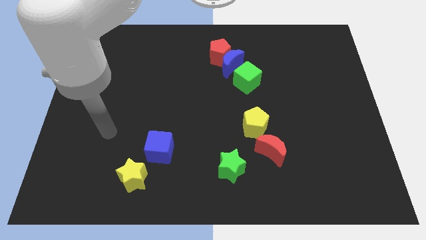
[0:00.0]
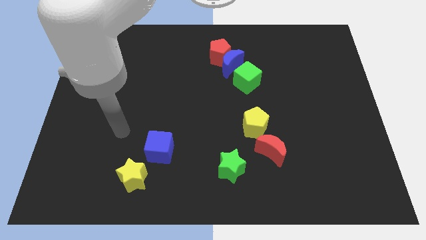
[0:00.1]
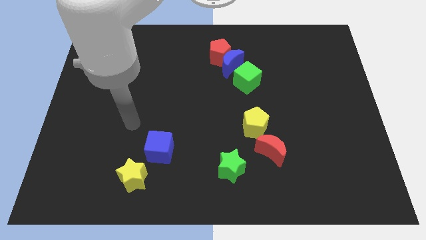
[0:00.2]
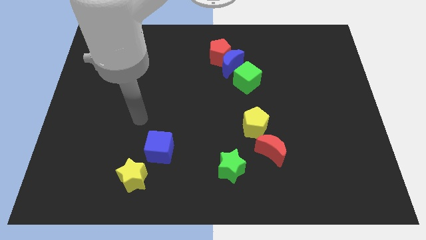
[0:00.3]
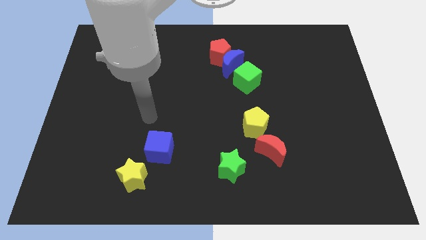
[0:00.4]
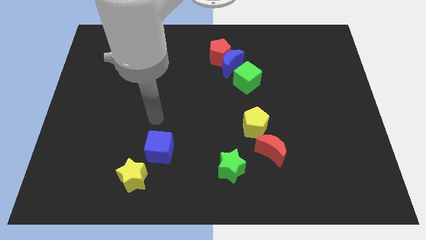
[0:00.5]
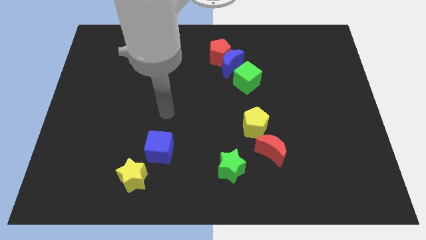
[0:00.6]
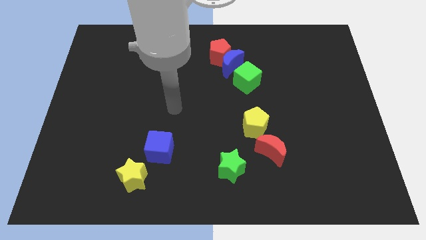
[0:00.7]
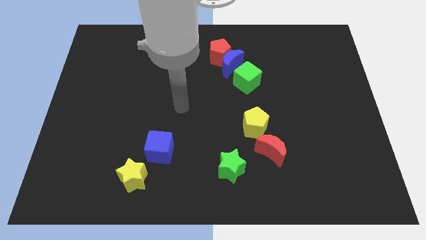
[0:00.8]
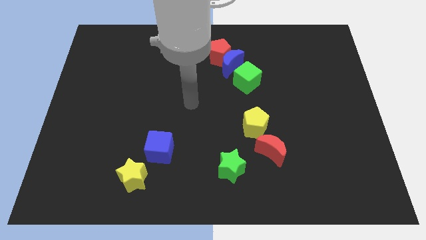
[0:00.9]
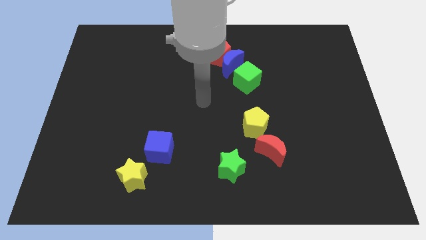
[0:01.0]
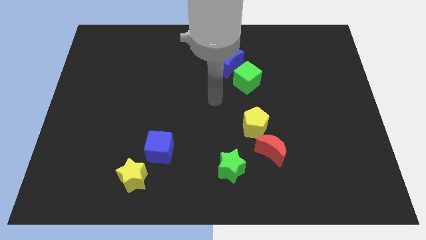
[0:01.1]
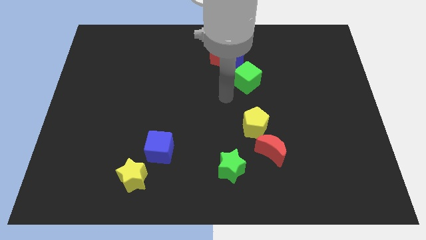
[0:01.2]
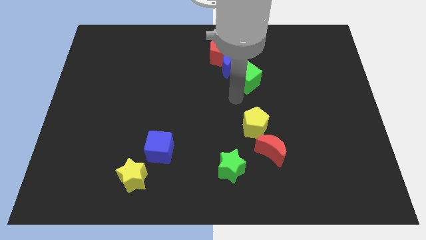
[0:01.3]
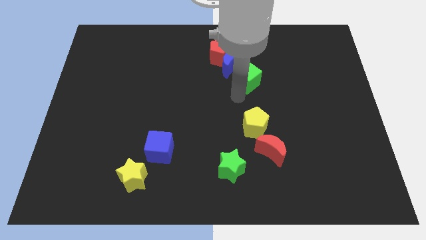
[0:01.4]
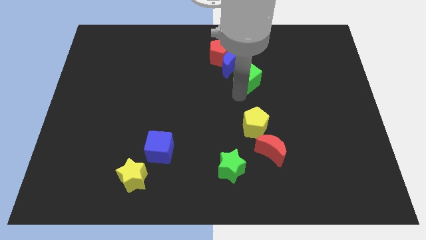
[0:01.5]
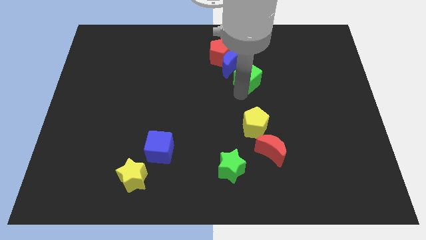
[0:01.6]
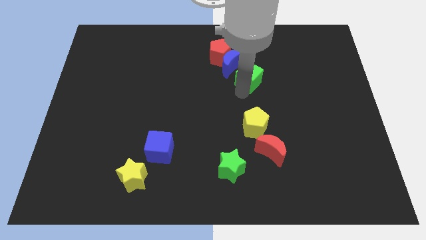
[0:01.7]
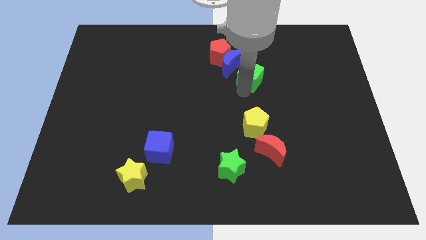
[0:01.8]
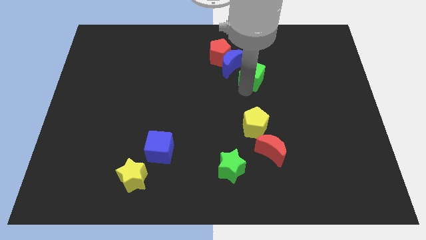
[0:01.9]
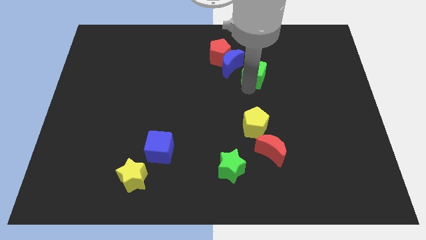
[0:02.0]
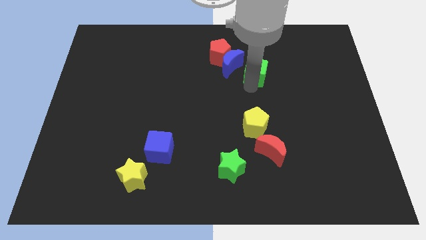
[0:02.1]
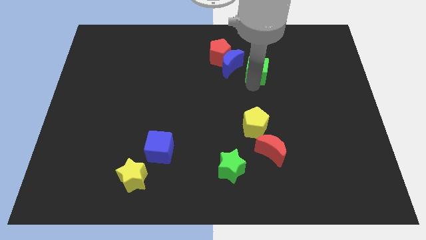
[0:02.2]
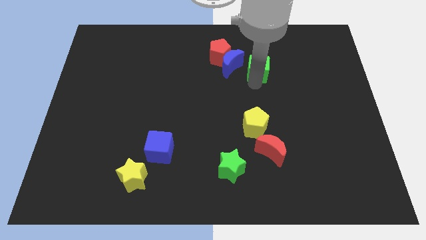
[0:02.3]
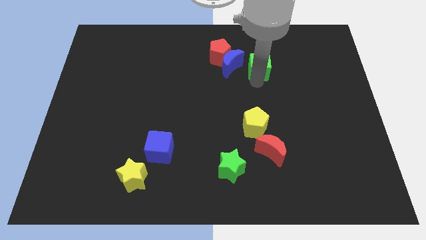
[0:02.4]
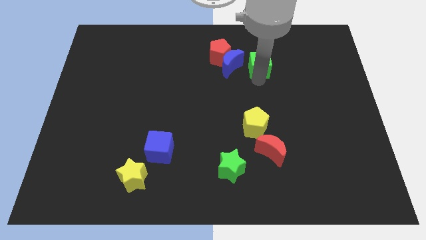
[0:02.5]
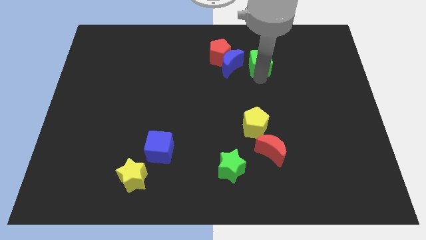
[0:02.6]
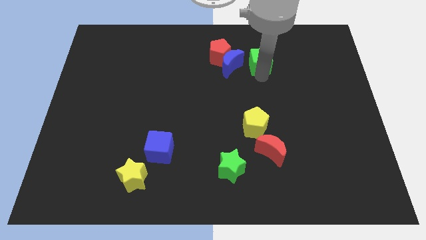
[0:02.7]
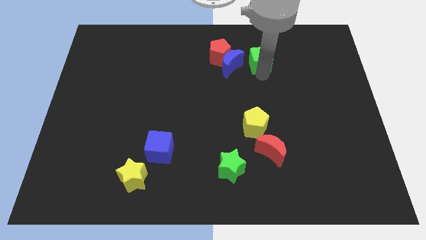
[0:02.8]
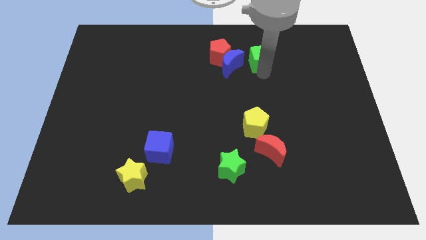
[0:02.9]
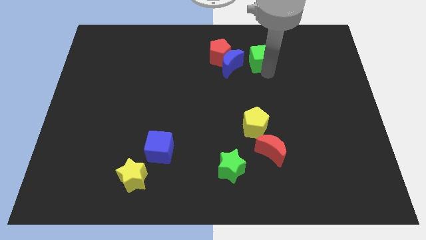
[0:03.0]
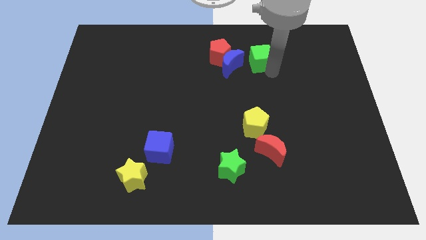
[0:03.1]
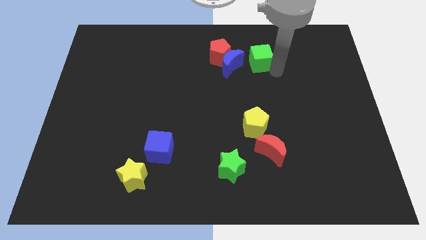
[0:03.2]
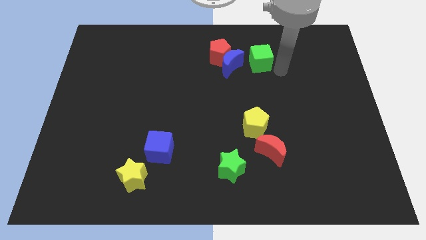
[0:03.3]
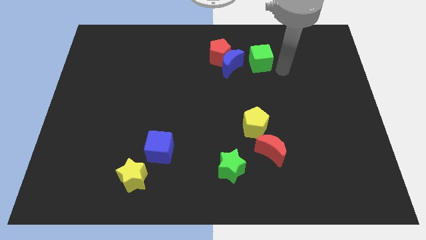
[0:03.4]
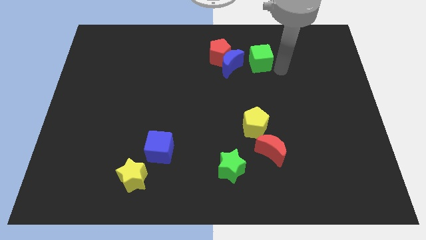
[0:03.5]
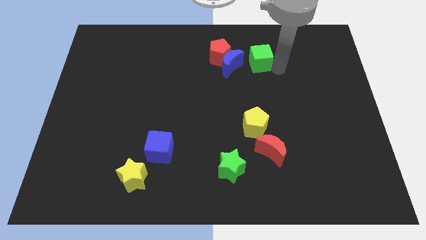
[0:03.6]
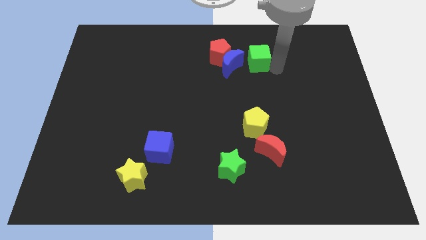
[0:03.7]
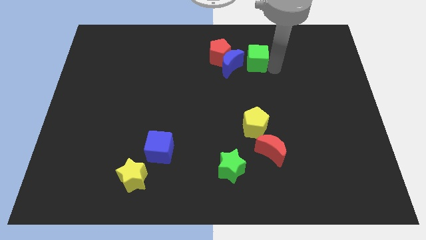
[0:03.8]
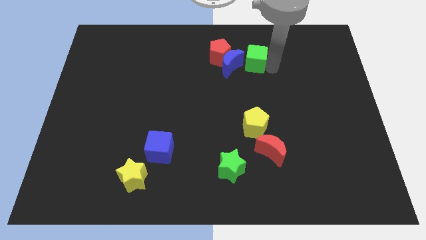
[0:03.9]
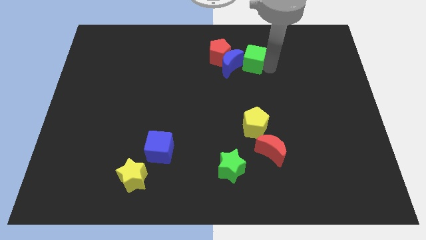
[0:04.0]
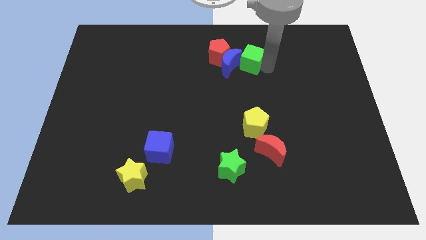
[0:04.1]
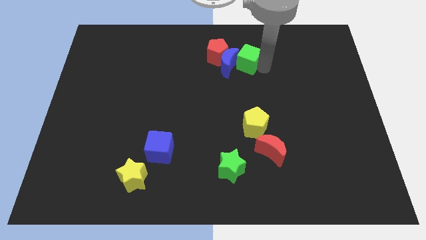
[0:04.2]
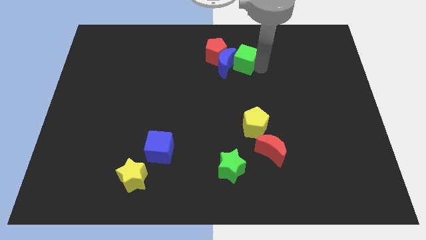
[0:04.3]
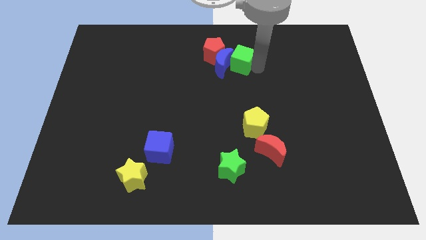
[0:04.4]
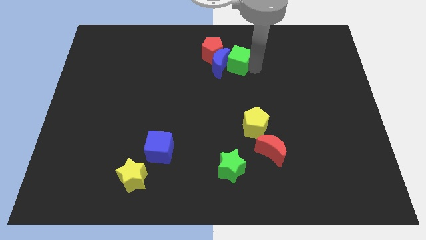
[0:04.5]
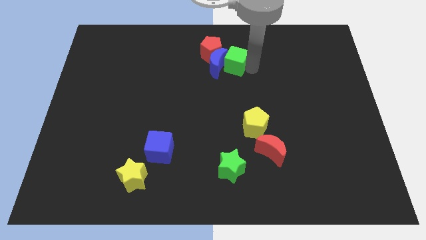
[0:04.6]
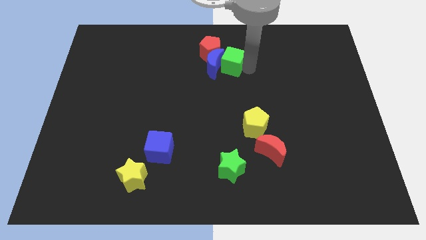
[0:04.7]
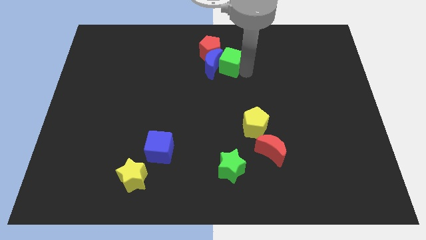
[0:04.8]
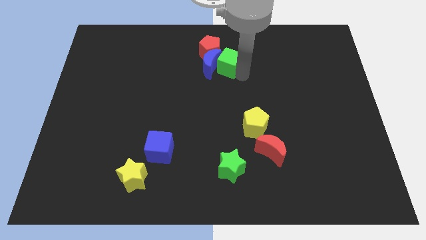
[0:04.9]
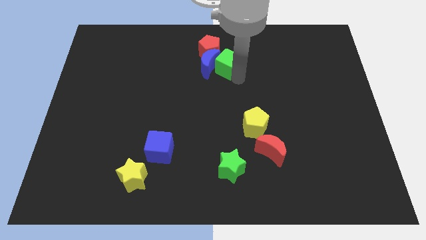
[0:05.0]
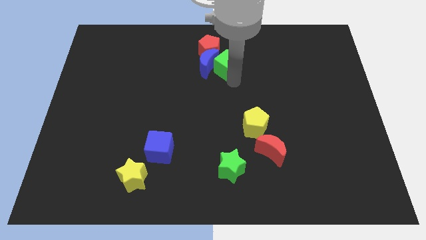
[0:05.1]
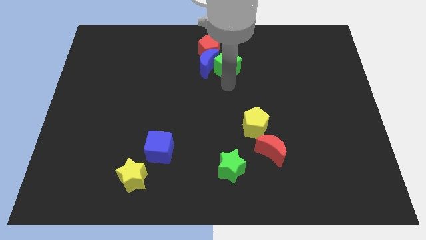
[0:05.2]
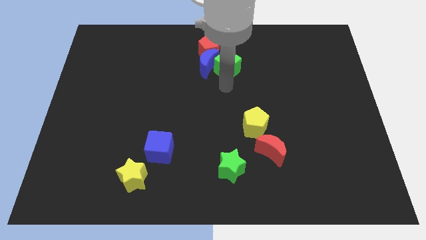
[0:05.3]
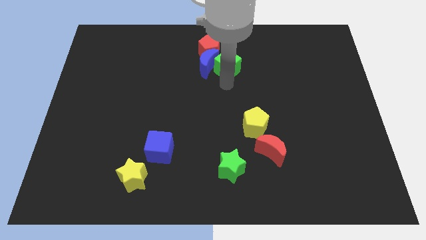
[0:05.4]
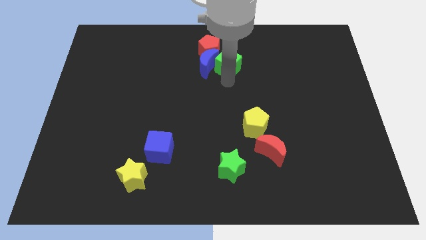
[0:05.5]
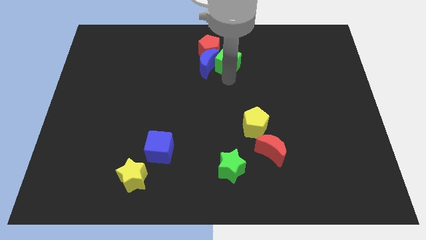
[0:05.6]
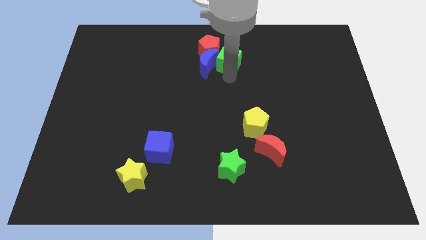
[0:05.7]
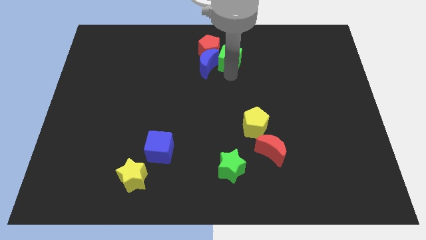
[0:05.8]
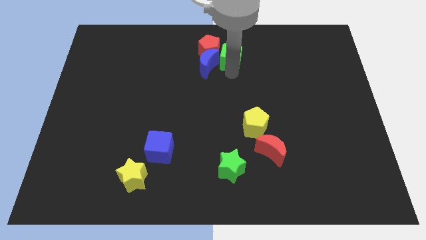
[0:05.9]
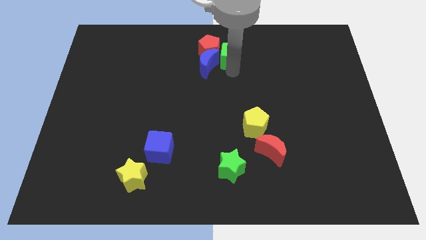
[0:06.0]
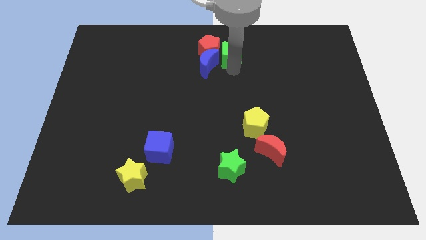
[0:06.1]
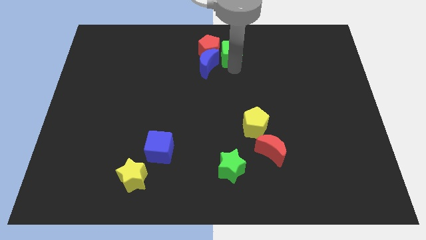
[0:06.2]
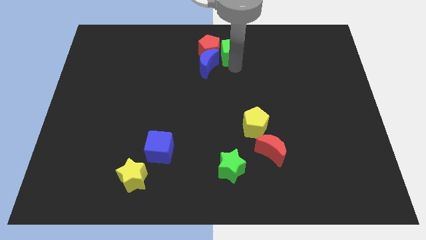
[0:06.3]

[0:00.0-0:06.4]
move the green cube to the top
